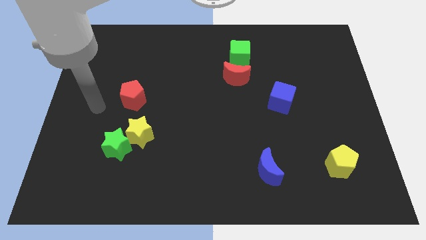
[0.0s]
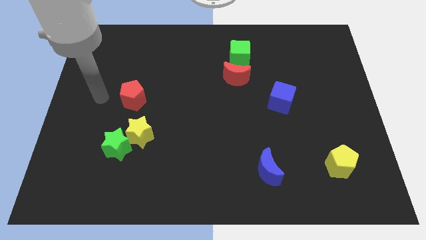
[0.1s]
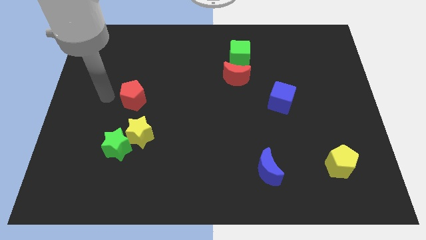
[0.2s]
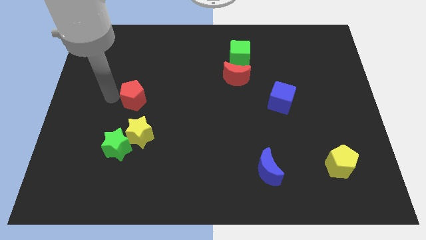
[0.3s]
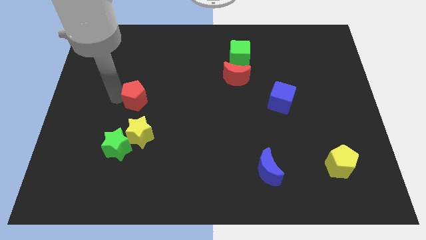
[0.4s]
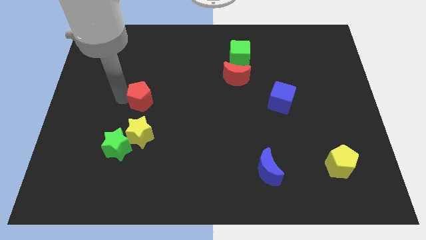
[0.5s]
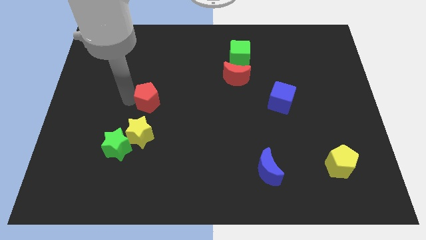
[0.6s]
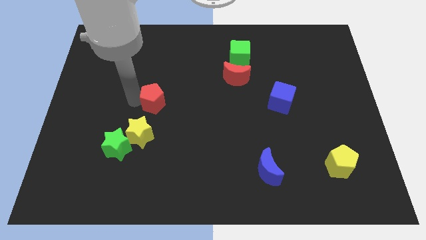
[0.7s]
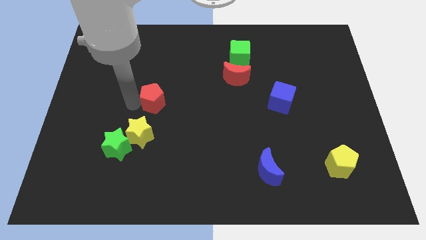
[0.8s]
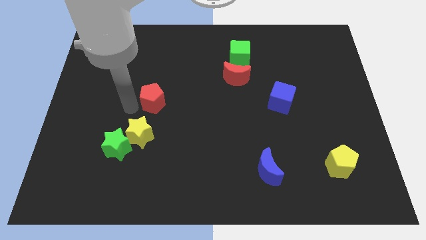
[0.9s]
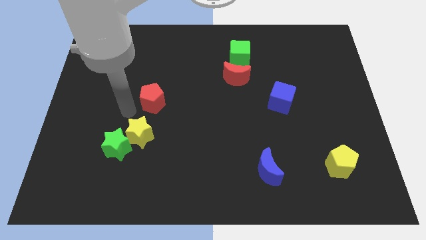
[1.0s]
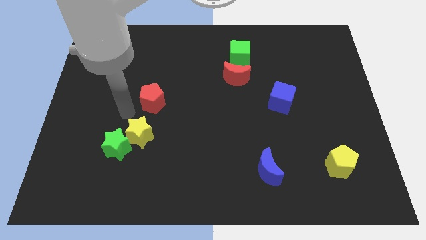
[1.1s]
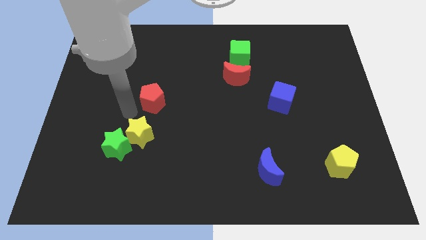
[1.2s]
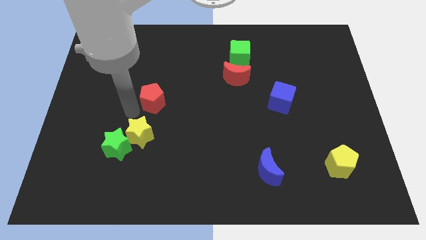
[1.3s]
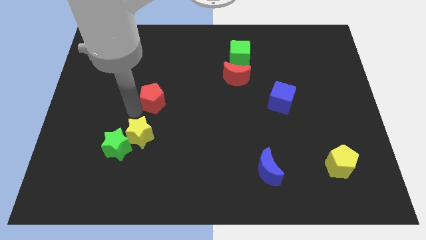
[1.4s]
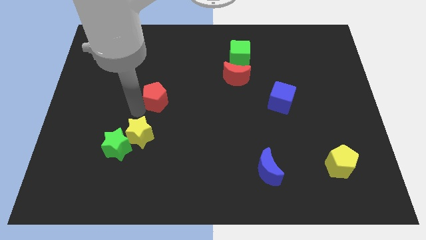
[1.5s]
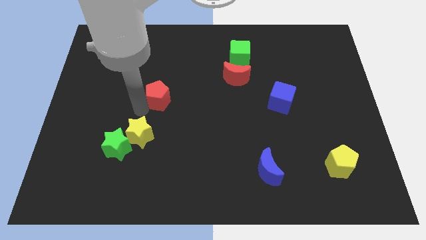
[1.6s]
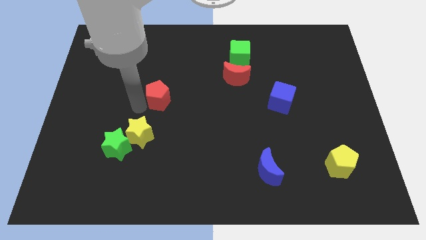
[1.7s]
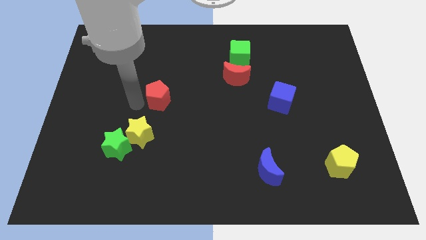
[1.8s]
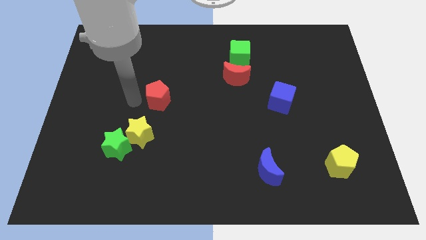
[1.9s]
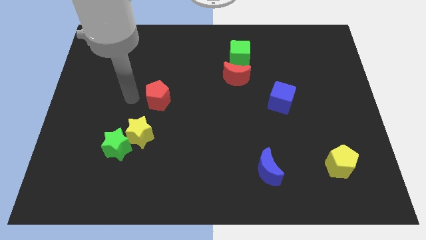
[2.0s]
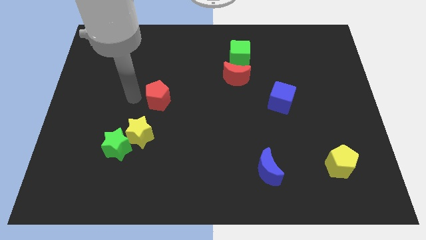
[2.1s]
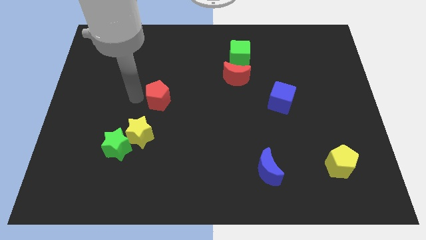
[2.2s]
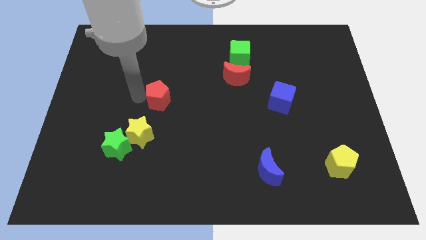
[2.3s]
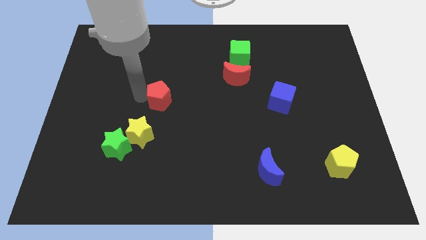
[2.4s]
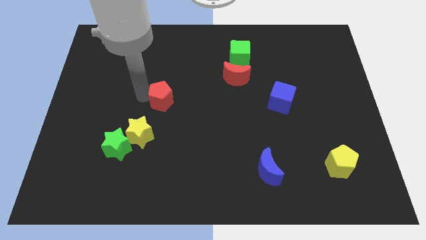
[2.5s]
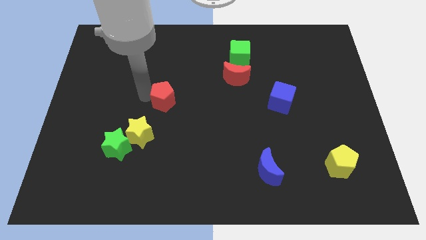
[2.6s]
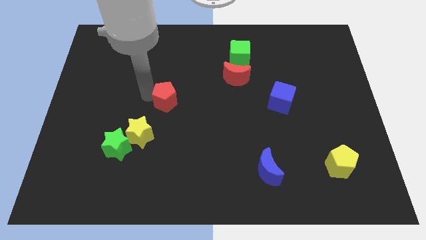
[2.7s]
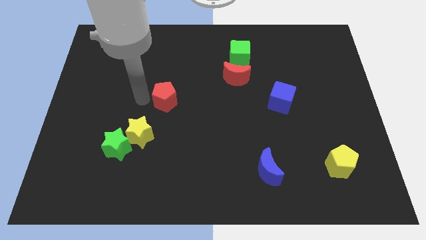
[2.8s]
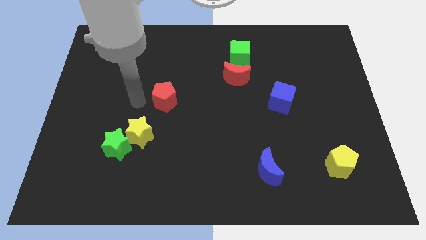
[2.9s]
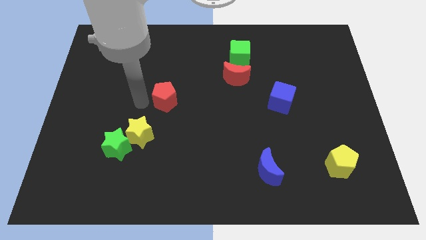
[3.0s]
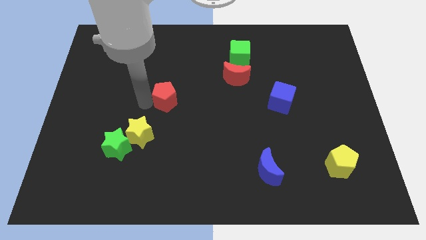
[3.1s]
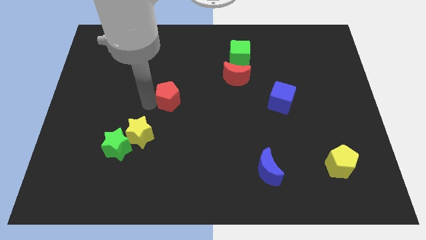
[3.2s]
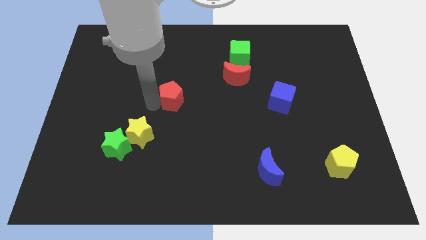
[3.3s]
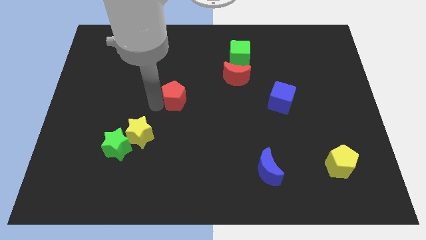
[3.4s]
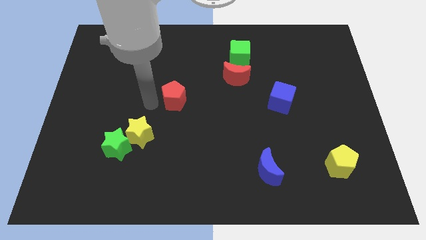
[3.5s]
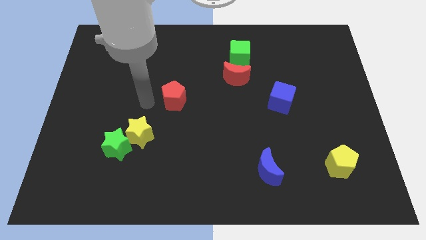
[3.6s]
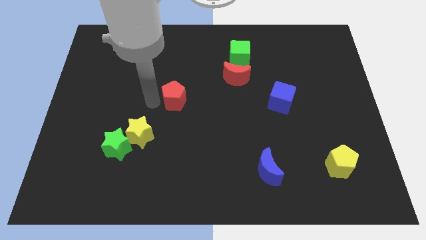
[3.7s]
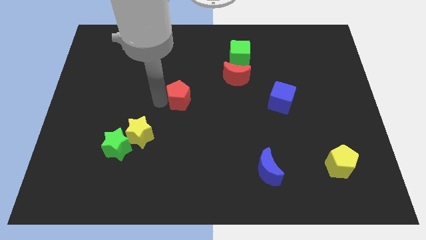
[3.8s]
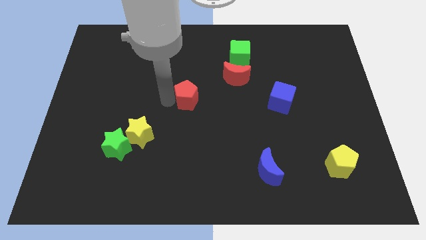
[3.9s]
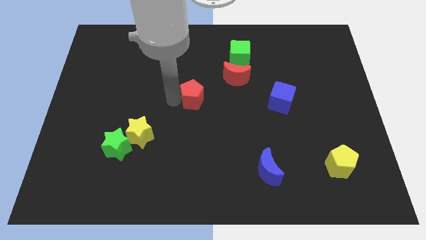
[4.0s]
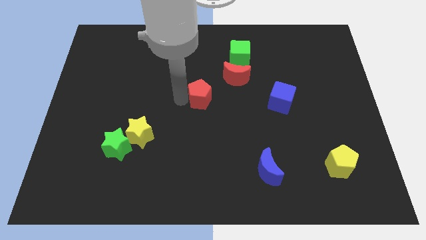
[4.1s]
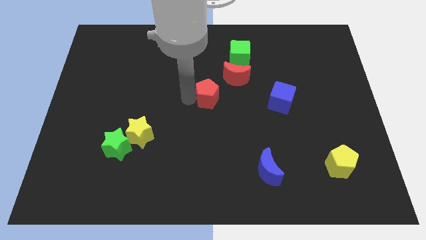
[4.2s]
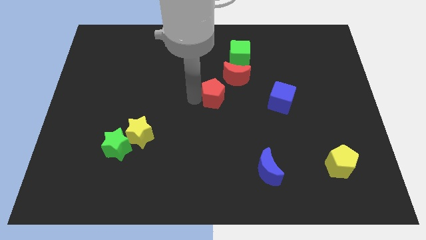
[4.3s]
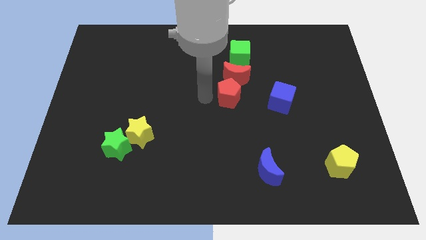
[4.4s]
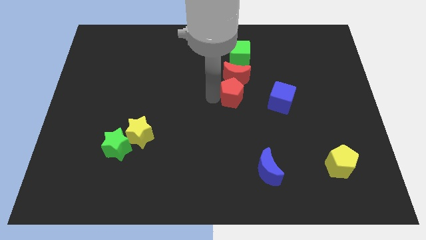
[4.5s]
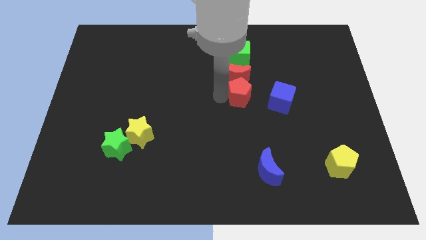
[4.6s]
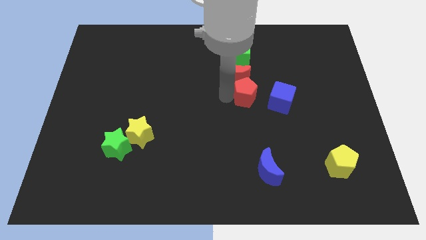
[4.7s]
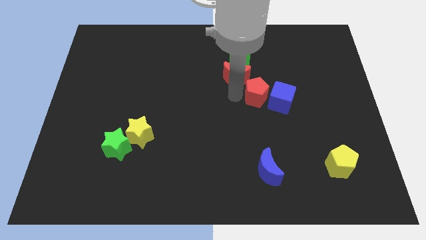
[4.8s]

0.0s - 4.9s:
slide the red pentagon close to the blue cube

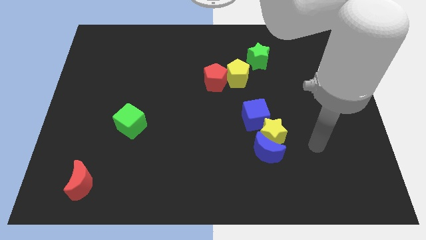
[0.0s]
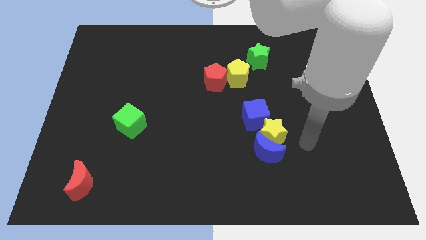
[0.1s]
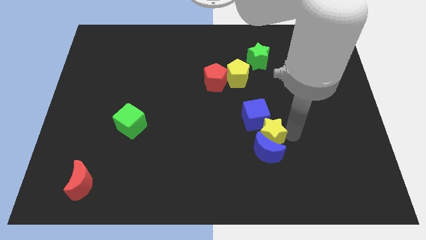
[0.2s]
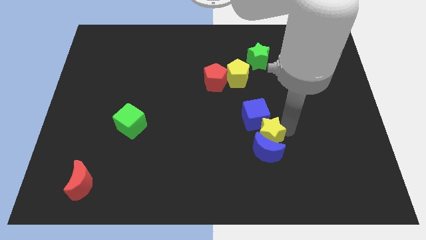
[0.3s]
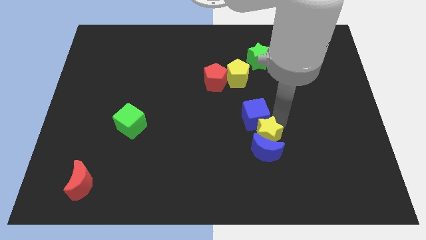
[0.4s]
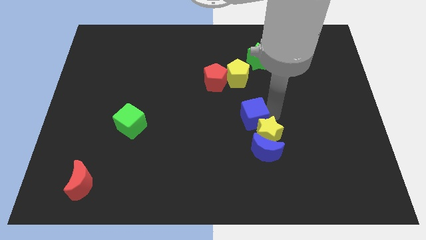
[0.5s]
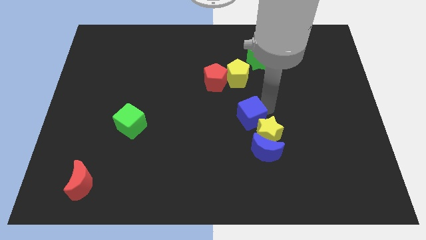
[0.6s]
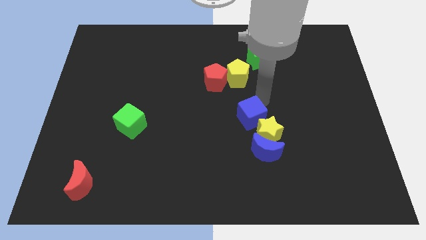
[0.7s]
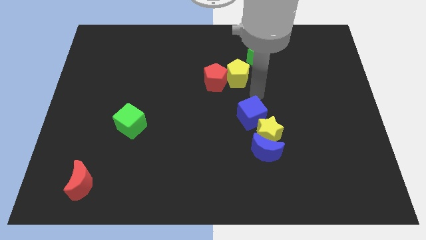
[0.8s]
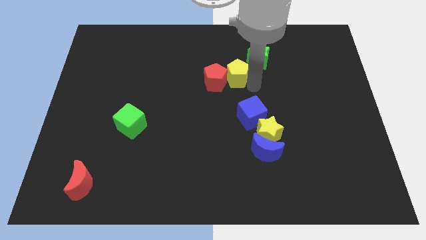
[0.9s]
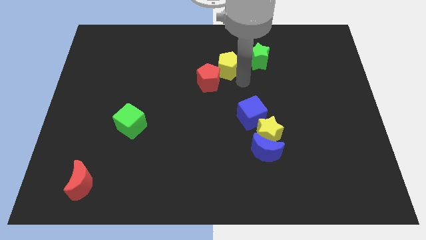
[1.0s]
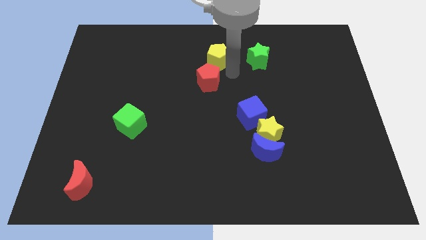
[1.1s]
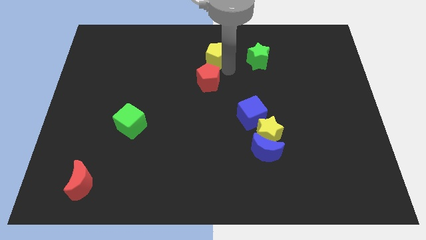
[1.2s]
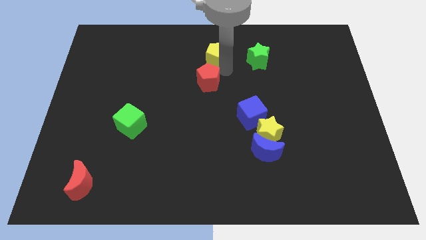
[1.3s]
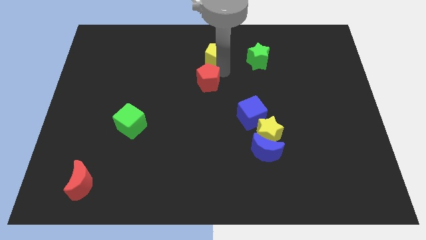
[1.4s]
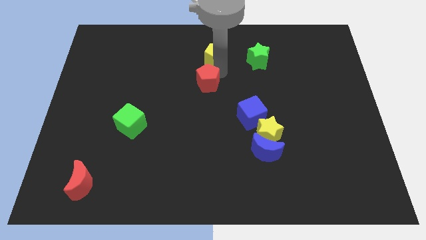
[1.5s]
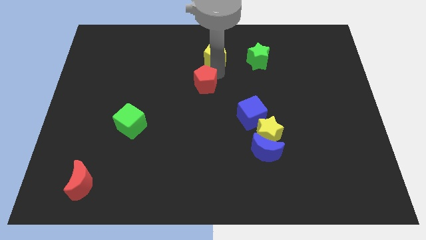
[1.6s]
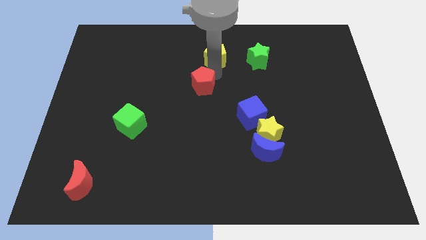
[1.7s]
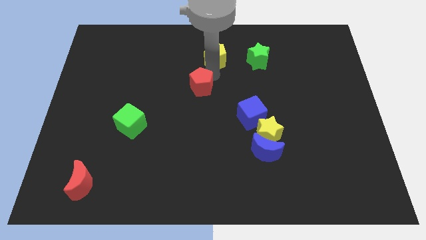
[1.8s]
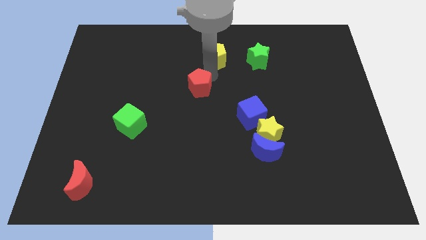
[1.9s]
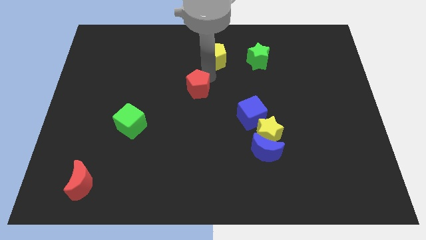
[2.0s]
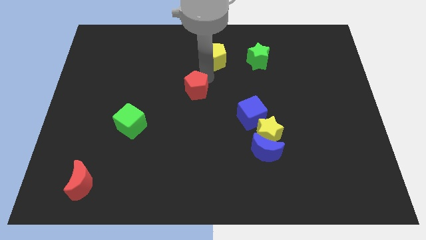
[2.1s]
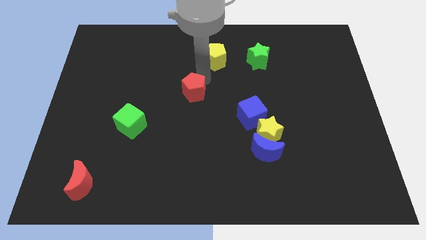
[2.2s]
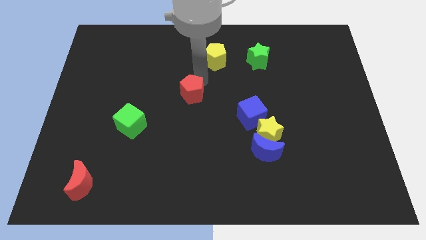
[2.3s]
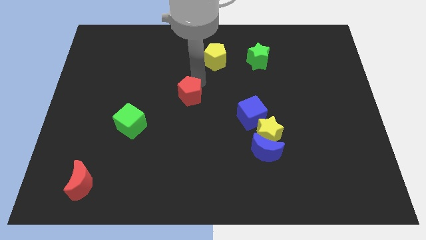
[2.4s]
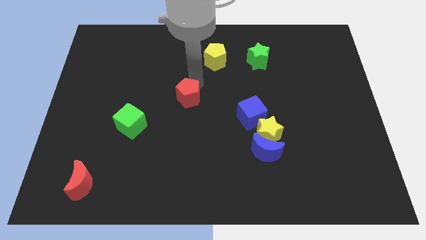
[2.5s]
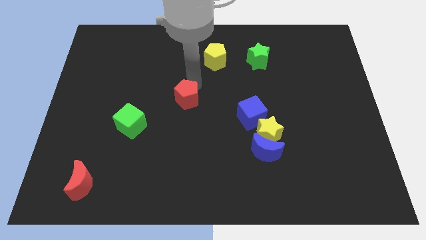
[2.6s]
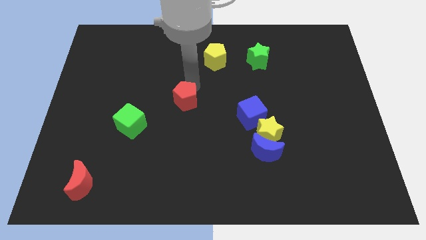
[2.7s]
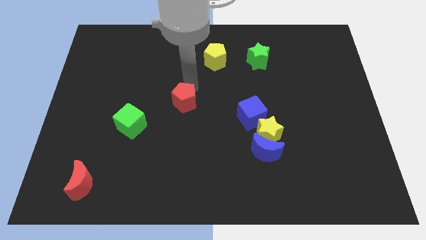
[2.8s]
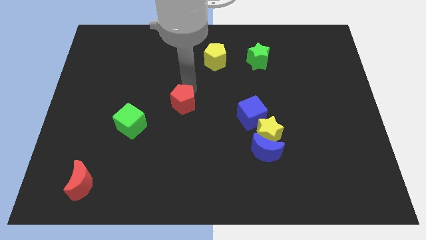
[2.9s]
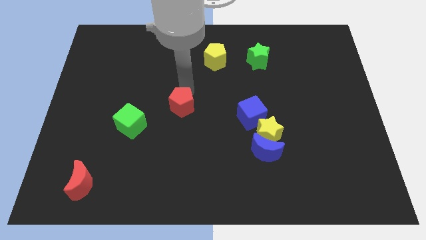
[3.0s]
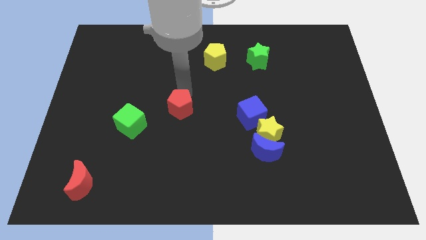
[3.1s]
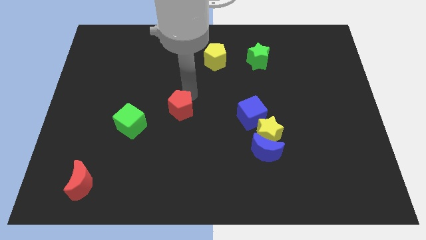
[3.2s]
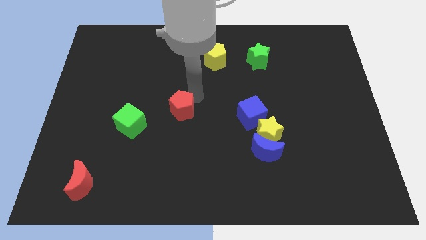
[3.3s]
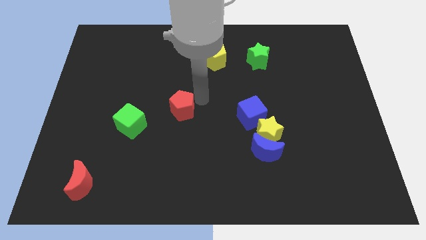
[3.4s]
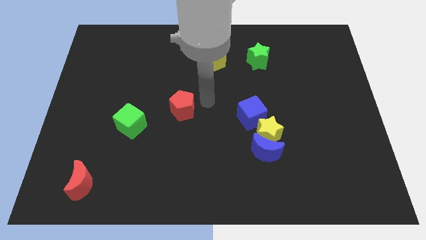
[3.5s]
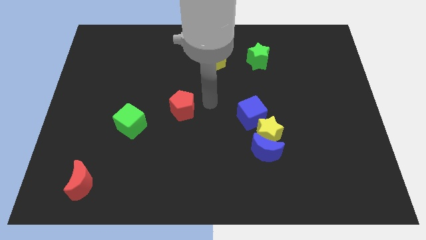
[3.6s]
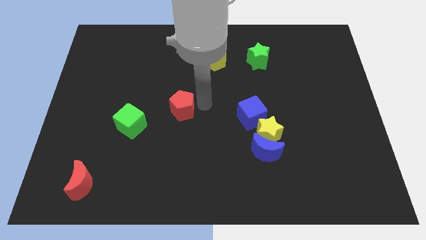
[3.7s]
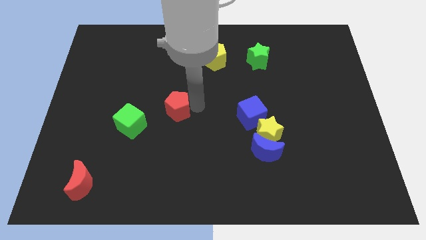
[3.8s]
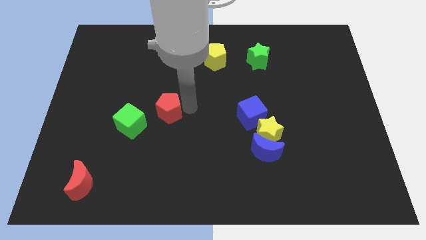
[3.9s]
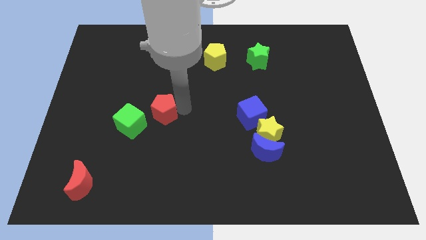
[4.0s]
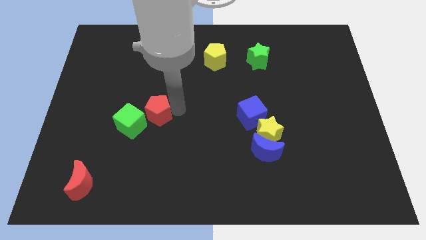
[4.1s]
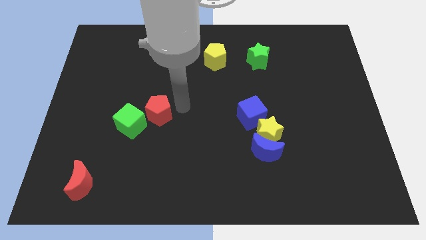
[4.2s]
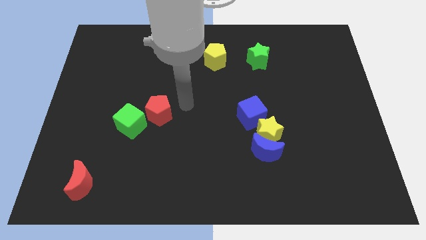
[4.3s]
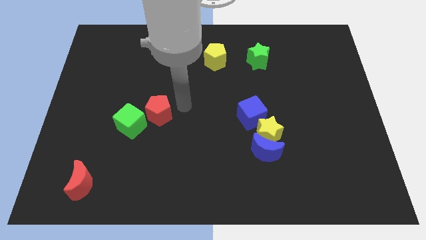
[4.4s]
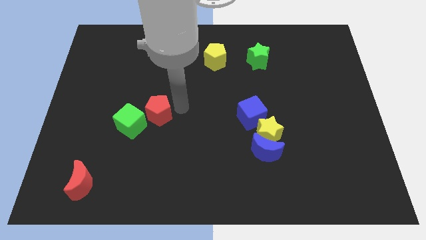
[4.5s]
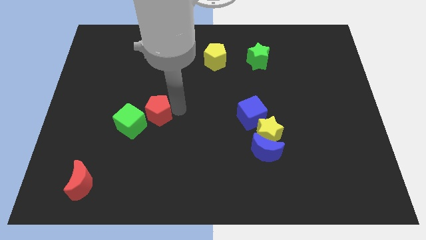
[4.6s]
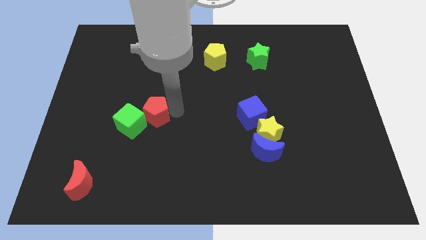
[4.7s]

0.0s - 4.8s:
put the red pentagon next to the green cube
